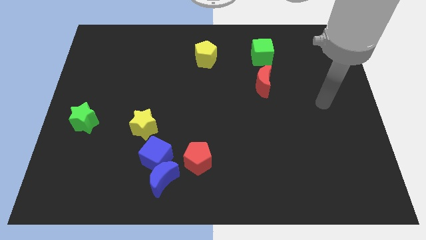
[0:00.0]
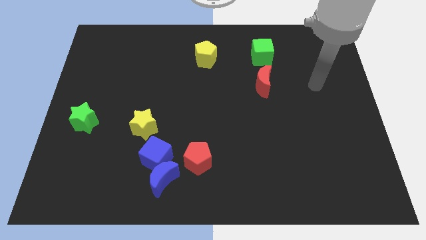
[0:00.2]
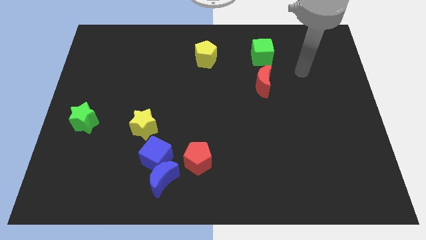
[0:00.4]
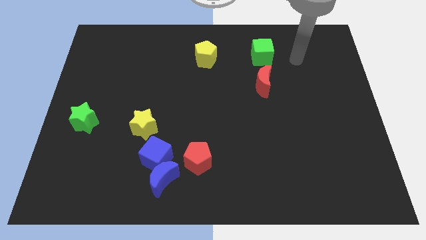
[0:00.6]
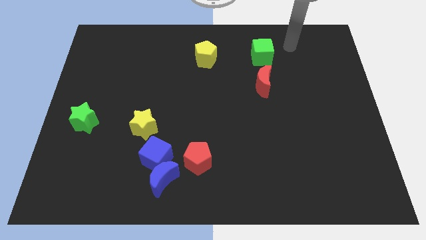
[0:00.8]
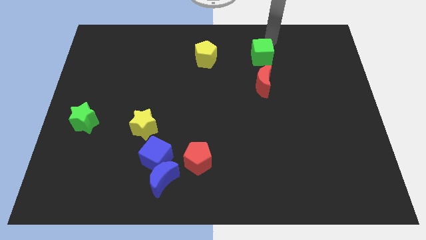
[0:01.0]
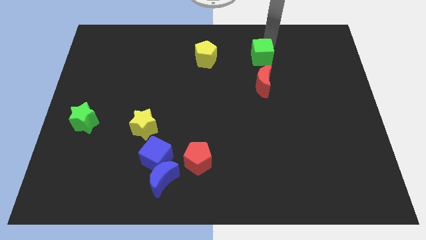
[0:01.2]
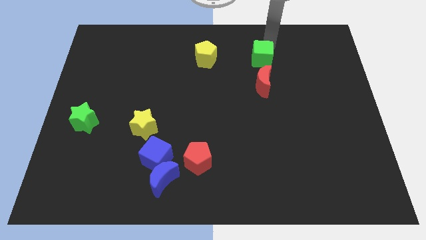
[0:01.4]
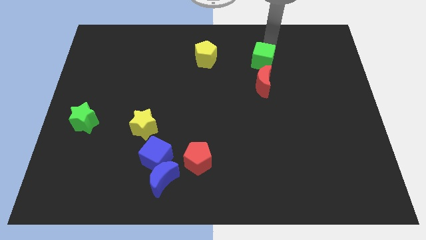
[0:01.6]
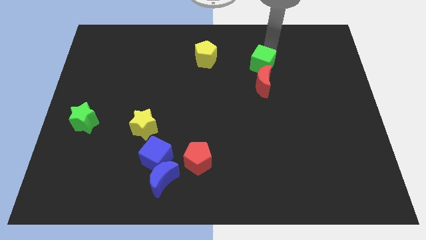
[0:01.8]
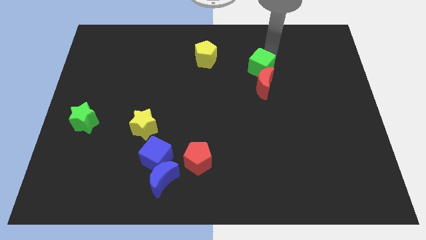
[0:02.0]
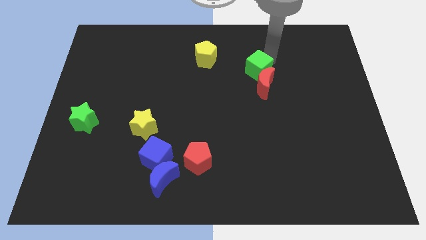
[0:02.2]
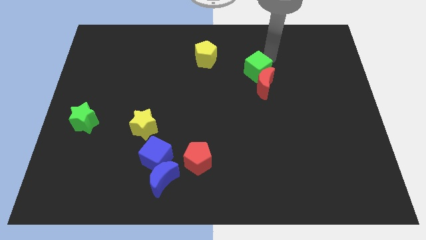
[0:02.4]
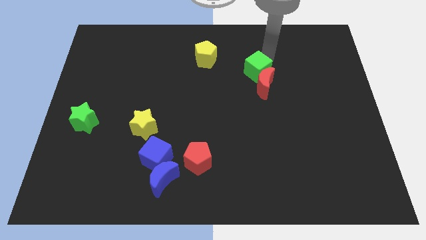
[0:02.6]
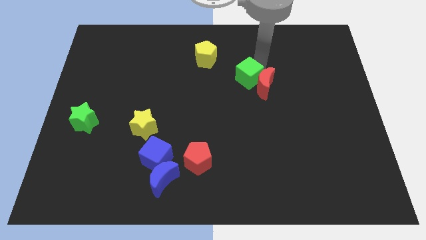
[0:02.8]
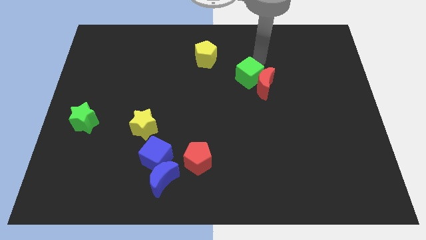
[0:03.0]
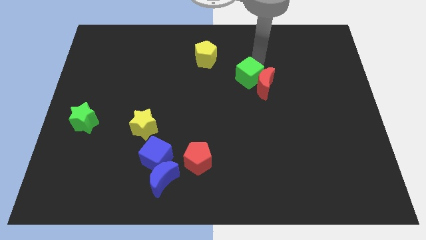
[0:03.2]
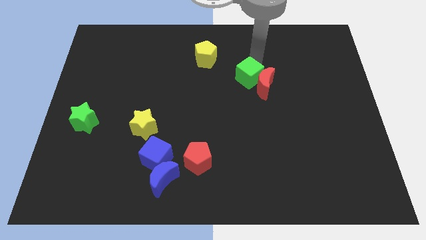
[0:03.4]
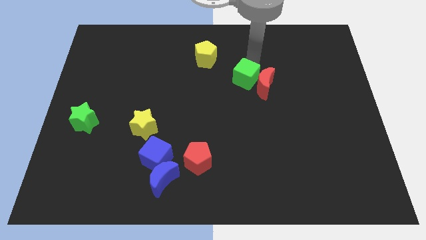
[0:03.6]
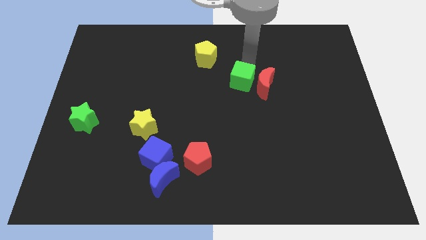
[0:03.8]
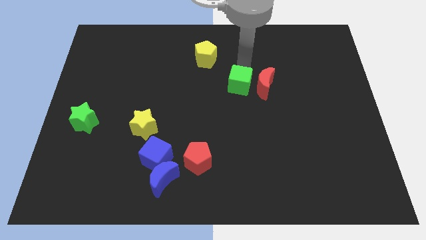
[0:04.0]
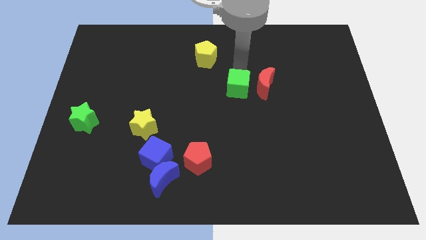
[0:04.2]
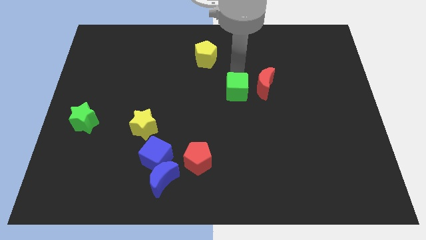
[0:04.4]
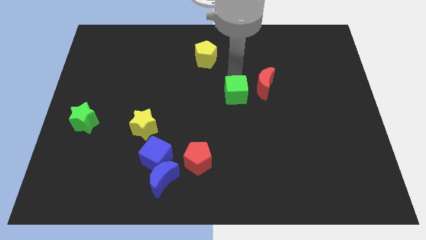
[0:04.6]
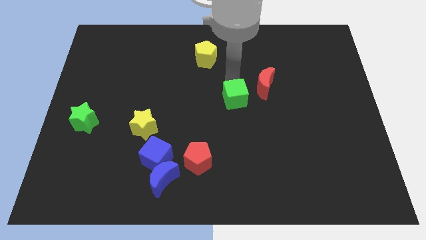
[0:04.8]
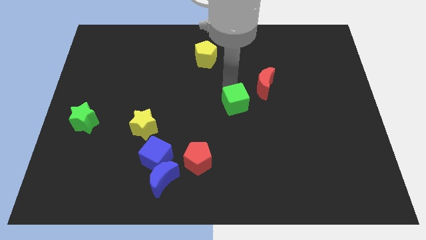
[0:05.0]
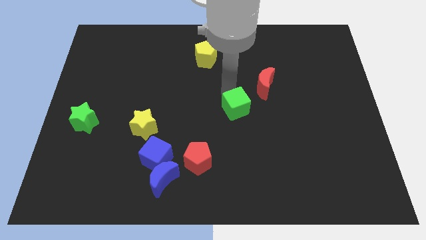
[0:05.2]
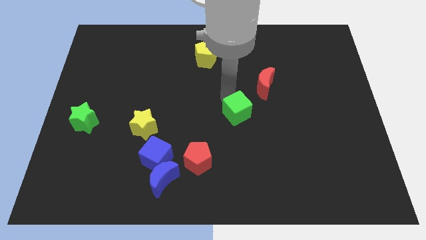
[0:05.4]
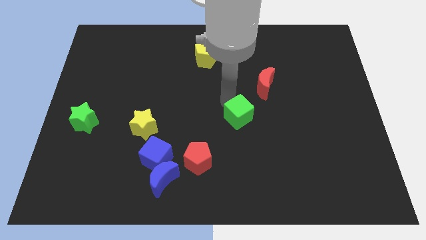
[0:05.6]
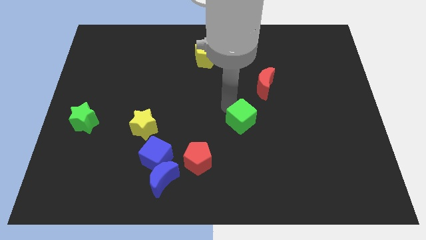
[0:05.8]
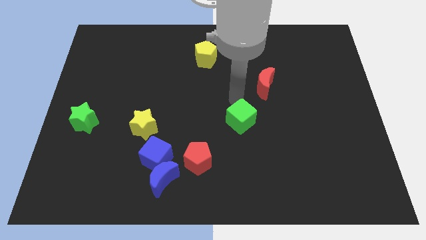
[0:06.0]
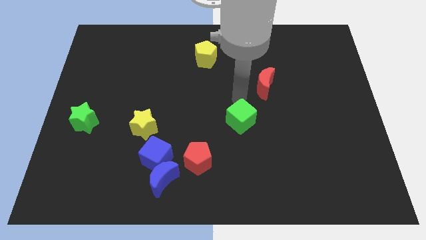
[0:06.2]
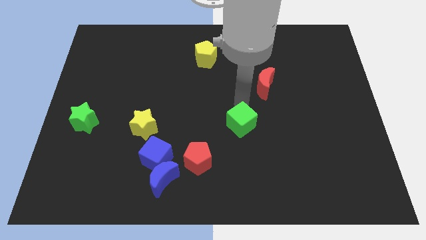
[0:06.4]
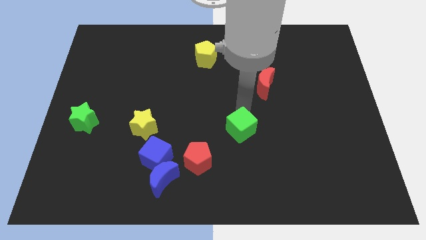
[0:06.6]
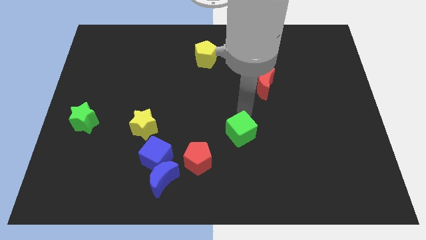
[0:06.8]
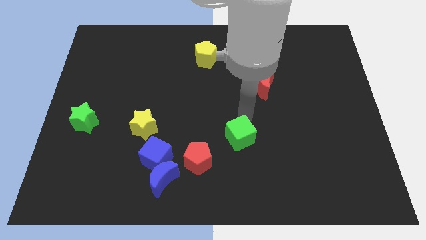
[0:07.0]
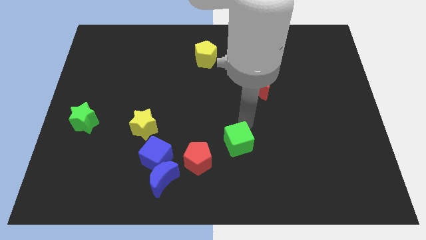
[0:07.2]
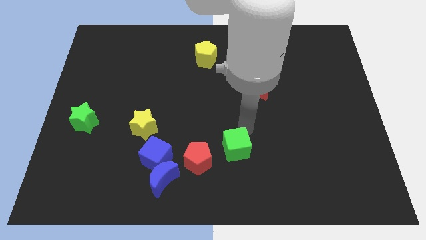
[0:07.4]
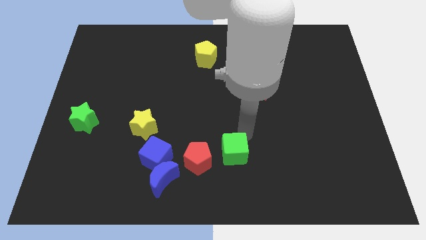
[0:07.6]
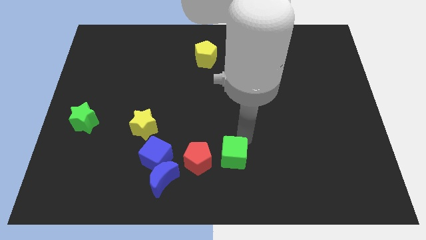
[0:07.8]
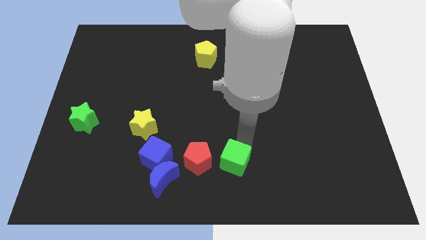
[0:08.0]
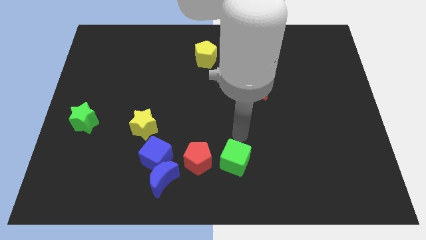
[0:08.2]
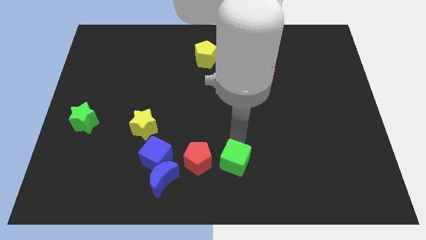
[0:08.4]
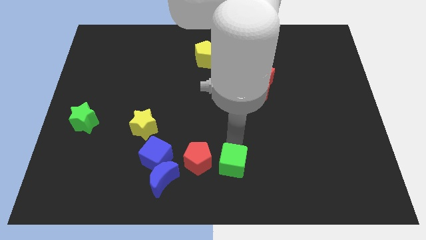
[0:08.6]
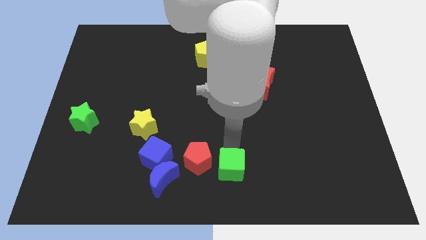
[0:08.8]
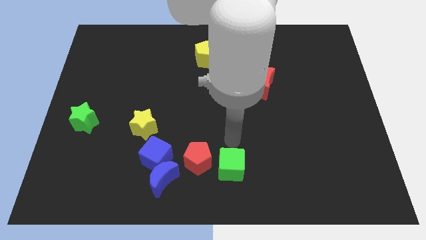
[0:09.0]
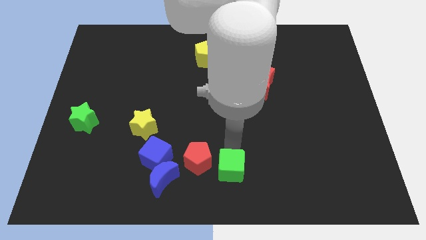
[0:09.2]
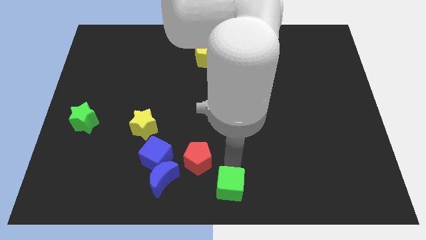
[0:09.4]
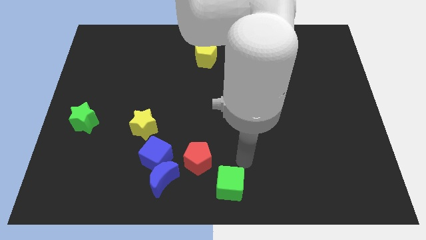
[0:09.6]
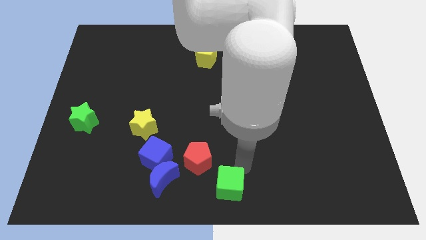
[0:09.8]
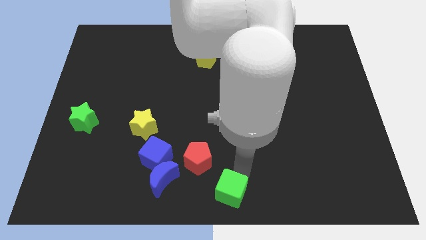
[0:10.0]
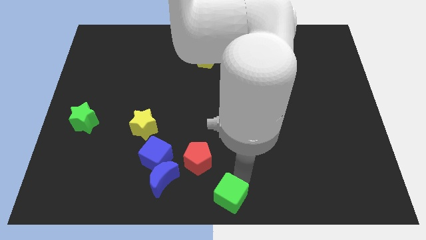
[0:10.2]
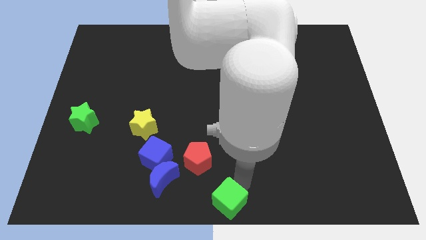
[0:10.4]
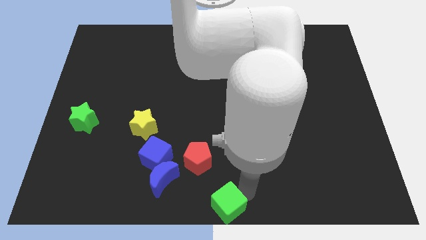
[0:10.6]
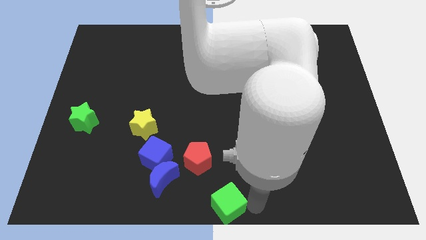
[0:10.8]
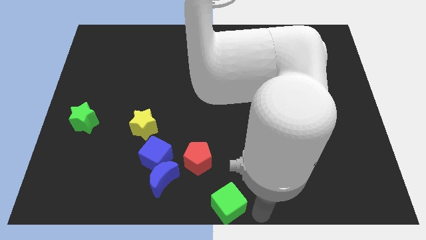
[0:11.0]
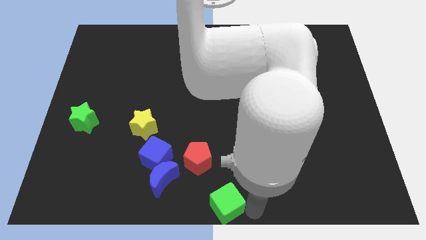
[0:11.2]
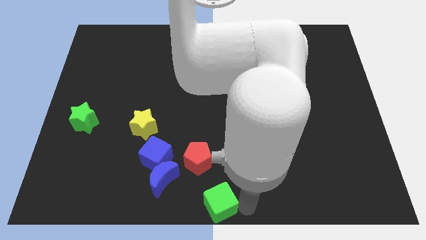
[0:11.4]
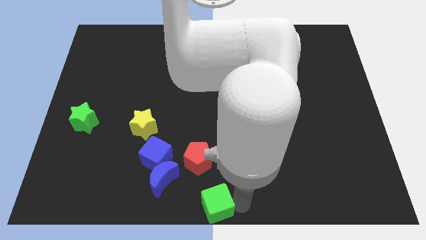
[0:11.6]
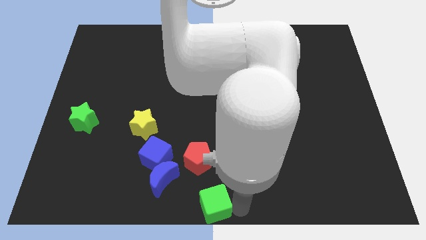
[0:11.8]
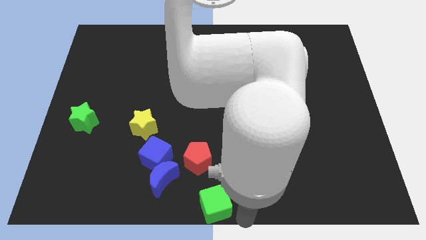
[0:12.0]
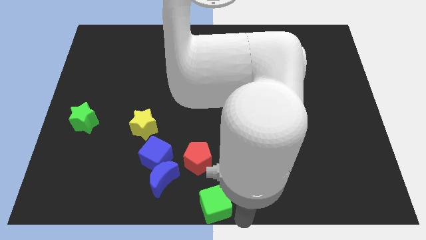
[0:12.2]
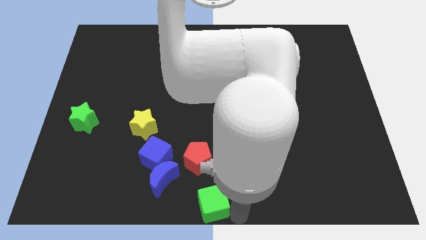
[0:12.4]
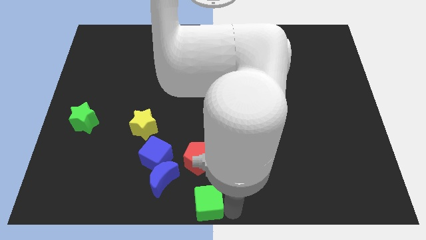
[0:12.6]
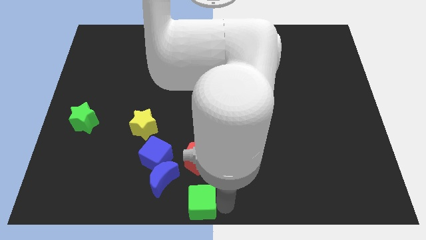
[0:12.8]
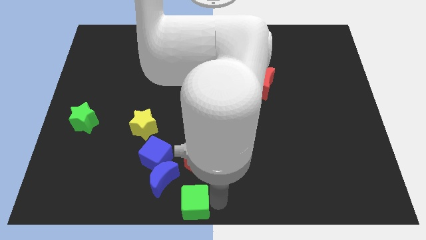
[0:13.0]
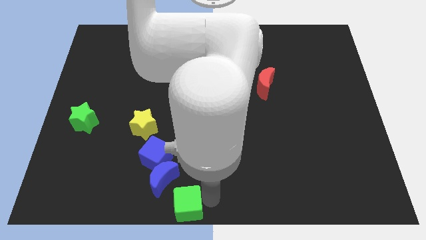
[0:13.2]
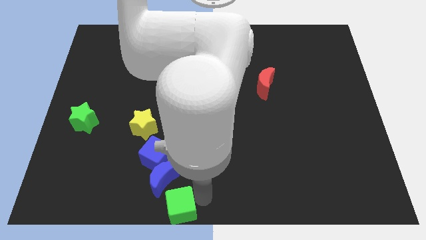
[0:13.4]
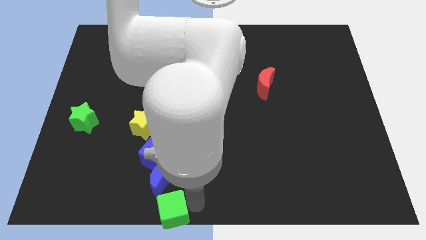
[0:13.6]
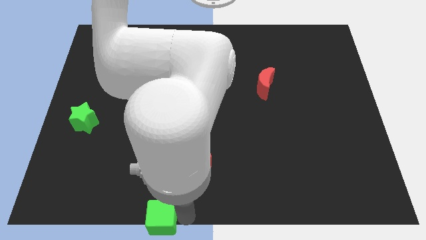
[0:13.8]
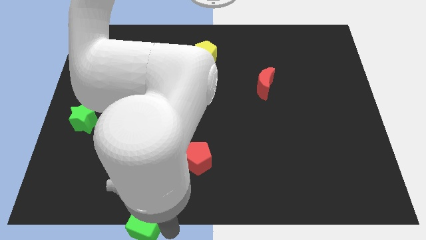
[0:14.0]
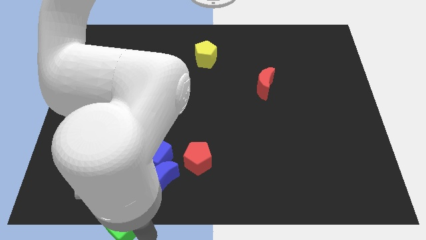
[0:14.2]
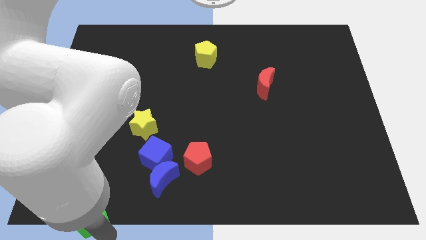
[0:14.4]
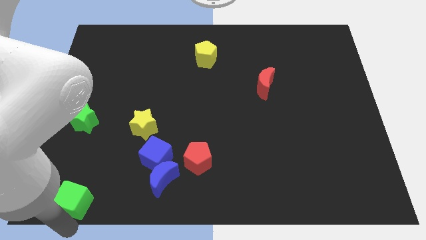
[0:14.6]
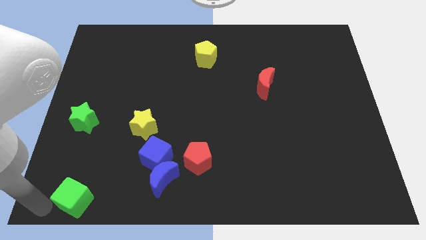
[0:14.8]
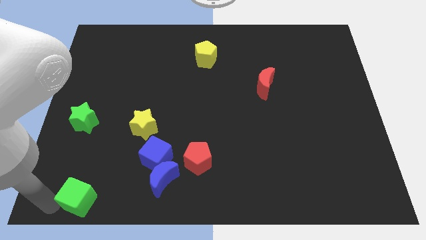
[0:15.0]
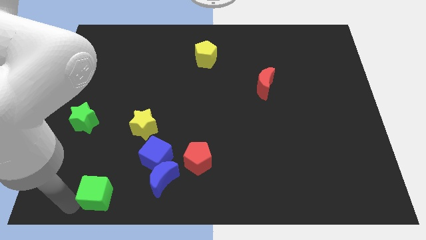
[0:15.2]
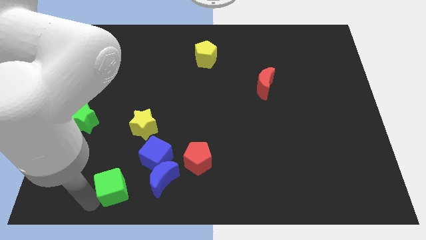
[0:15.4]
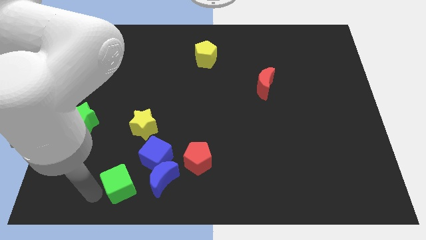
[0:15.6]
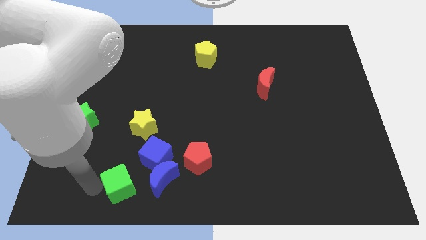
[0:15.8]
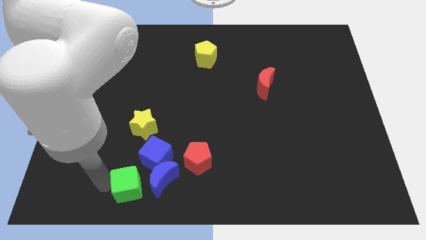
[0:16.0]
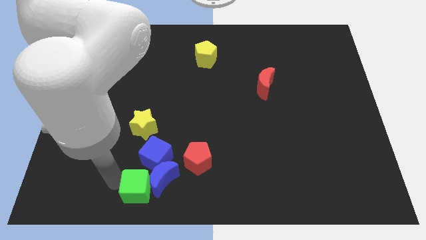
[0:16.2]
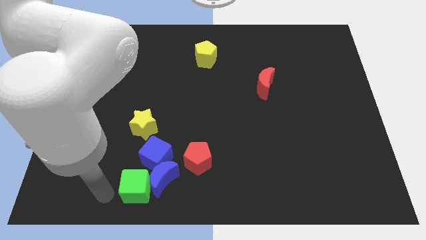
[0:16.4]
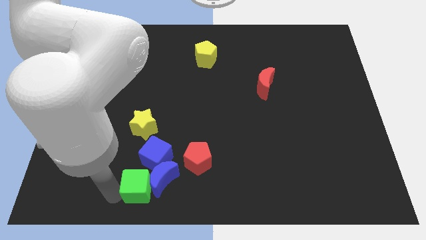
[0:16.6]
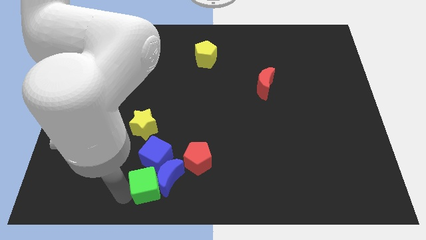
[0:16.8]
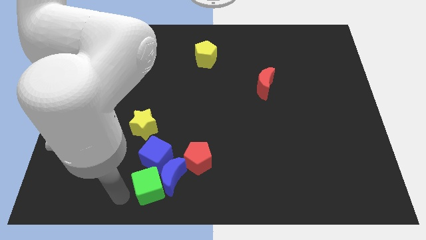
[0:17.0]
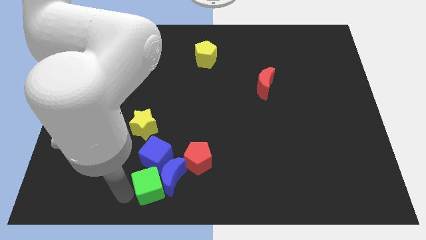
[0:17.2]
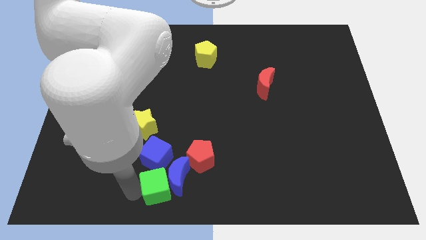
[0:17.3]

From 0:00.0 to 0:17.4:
push the green cube diagonally down and to the right of the blue cube
